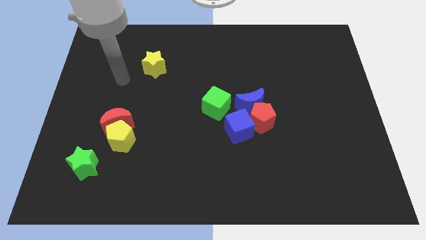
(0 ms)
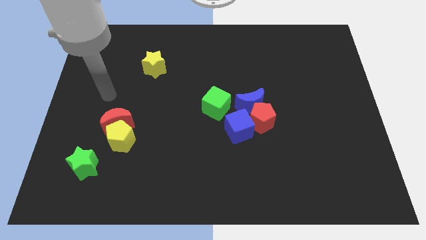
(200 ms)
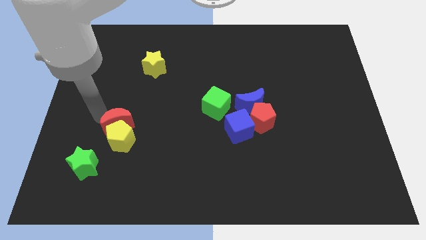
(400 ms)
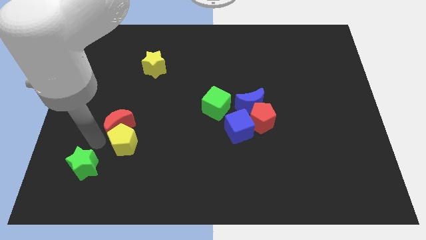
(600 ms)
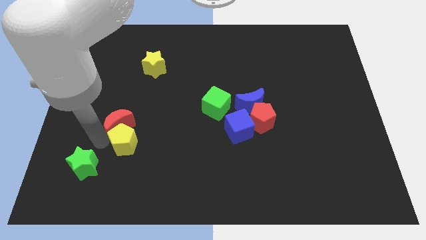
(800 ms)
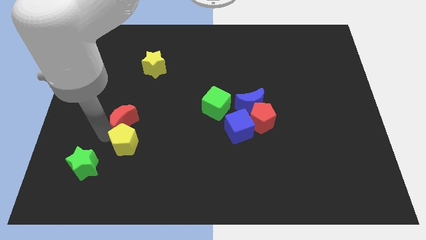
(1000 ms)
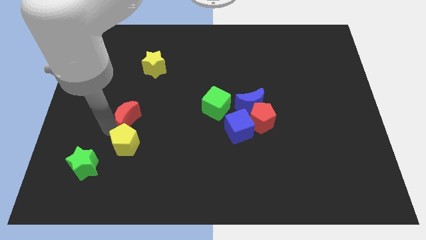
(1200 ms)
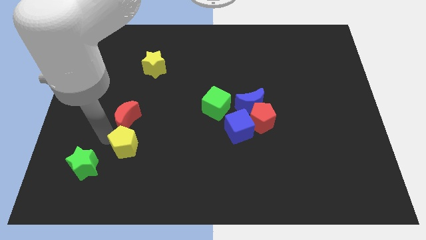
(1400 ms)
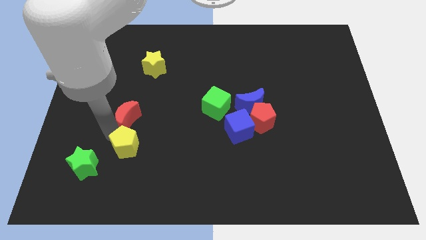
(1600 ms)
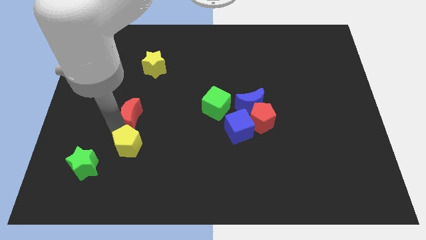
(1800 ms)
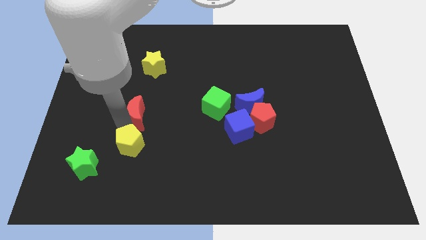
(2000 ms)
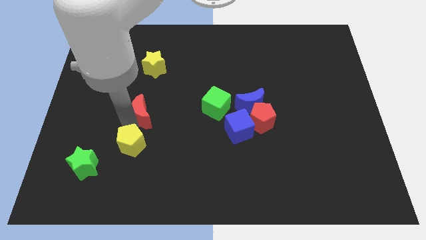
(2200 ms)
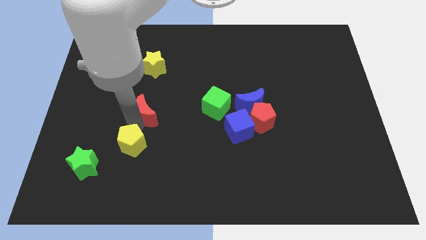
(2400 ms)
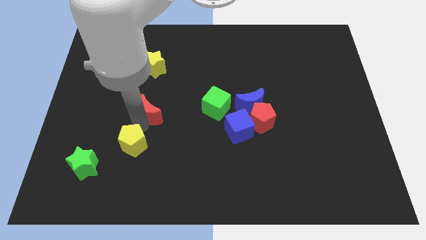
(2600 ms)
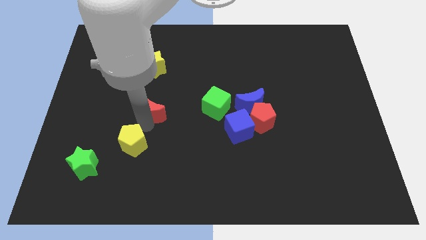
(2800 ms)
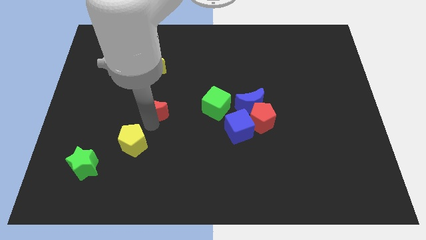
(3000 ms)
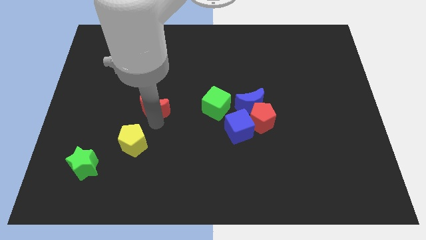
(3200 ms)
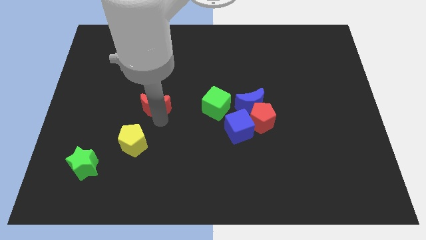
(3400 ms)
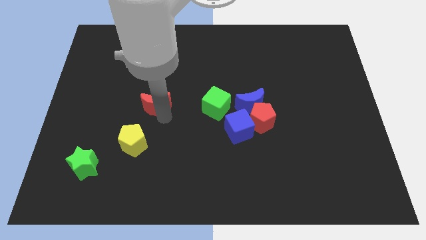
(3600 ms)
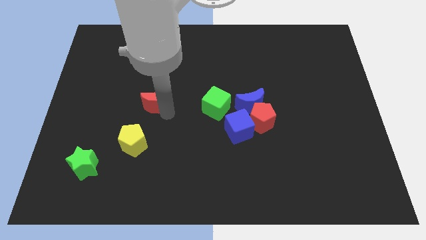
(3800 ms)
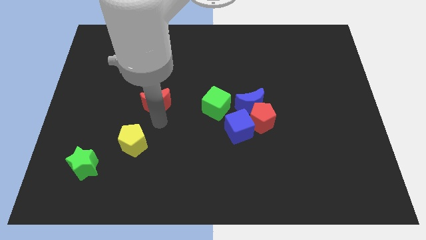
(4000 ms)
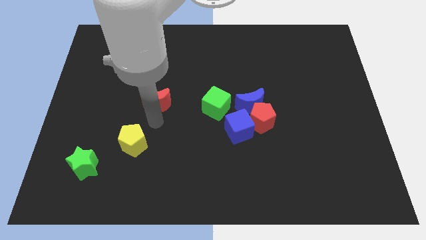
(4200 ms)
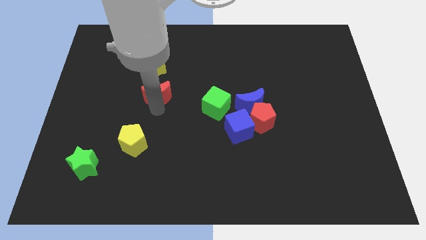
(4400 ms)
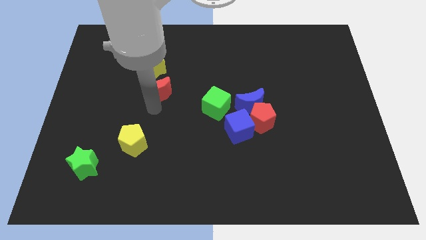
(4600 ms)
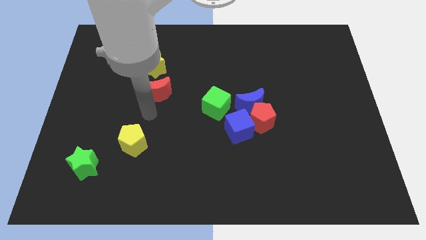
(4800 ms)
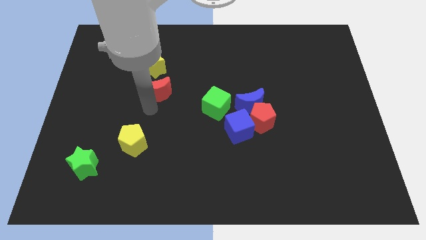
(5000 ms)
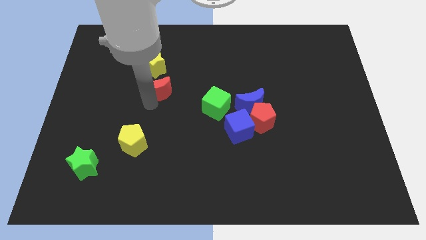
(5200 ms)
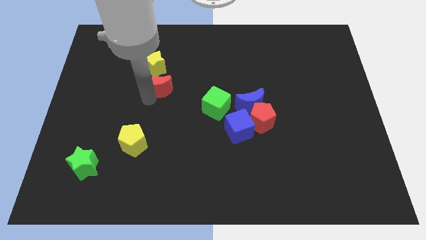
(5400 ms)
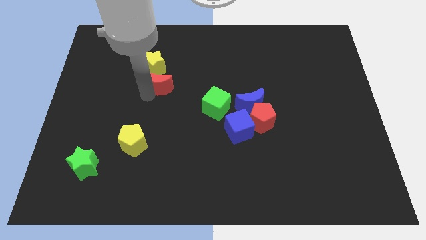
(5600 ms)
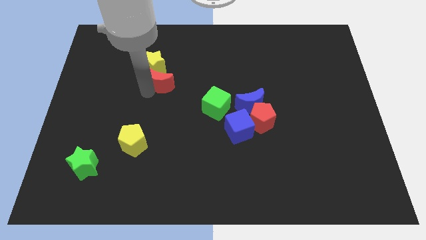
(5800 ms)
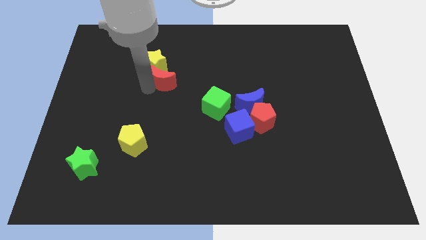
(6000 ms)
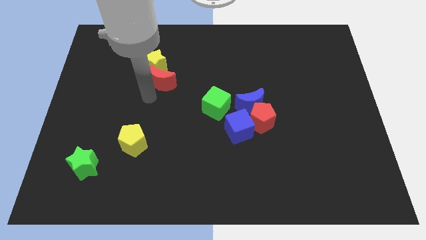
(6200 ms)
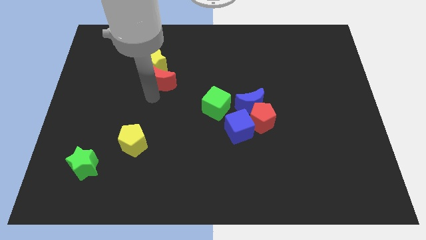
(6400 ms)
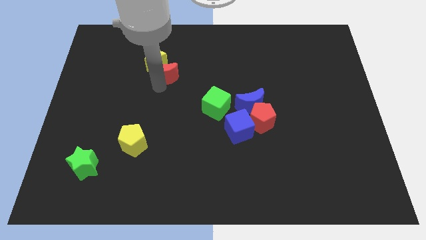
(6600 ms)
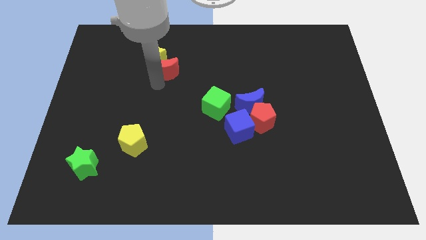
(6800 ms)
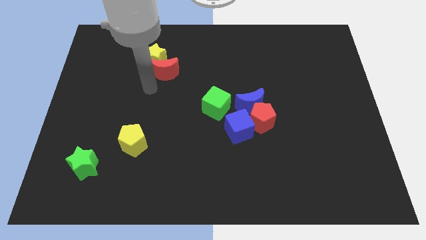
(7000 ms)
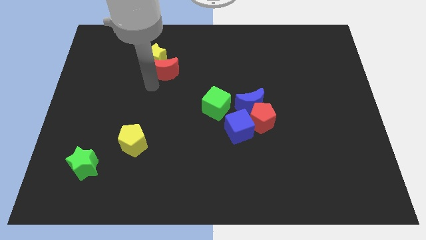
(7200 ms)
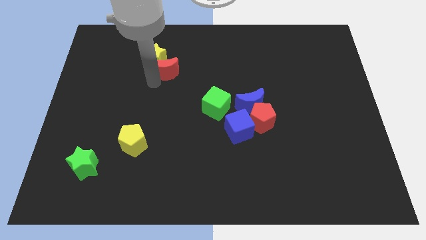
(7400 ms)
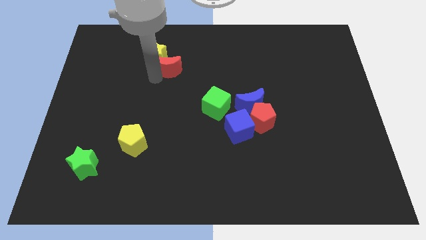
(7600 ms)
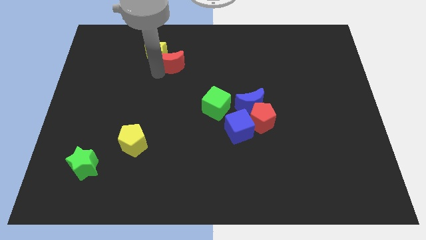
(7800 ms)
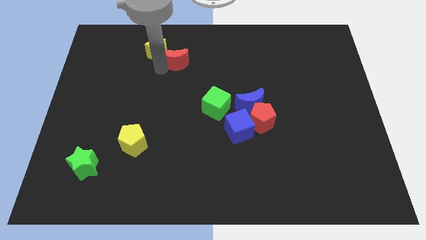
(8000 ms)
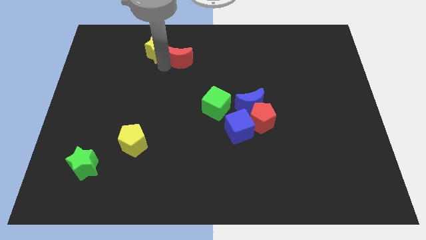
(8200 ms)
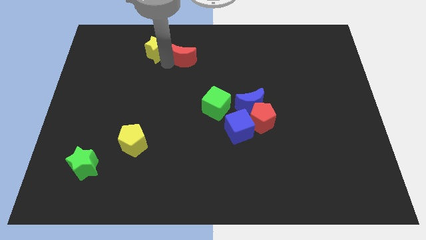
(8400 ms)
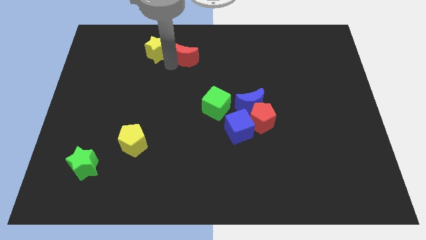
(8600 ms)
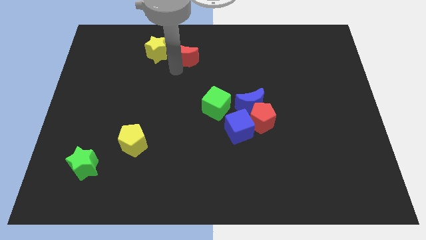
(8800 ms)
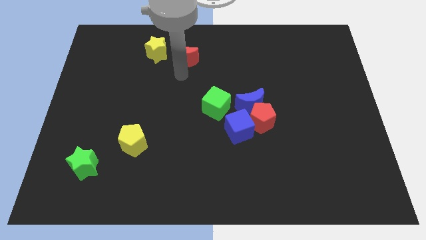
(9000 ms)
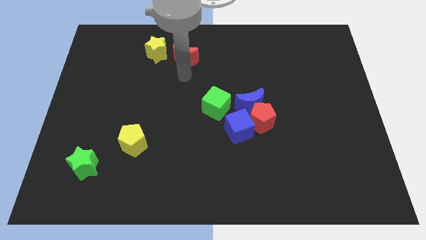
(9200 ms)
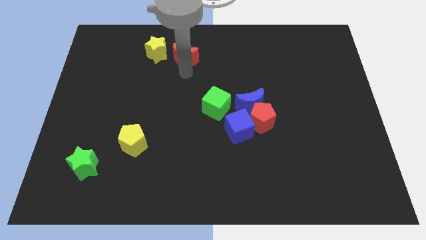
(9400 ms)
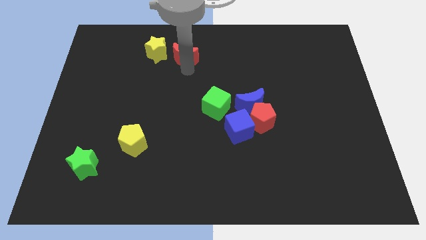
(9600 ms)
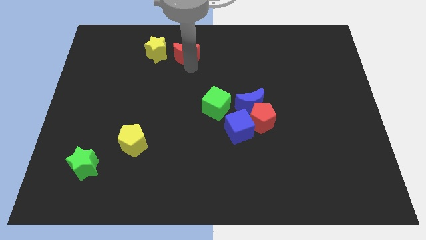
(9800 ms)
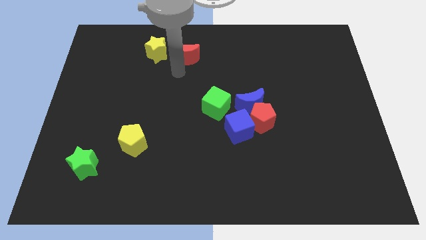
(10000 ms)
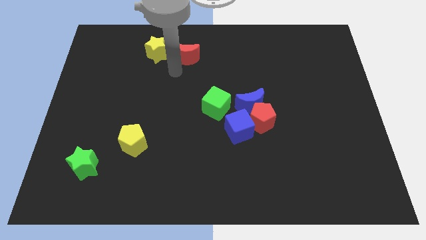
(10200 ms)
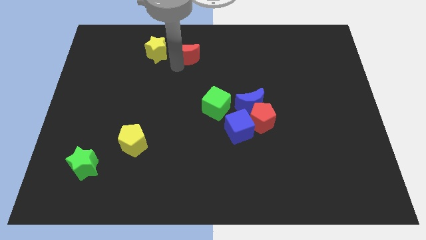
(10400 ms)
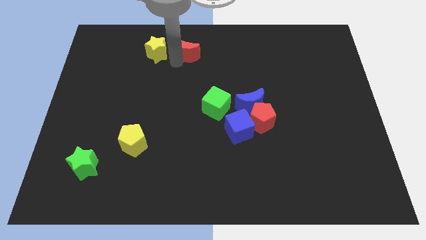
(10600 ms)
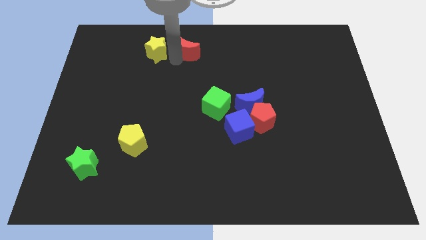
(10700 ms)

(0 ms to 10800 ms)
push the red moon to the towards your base

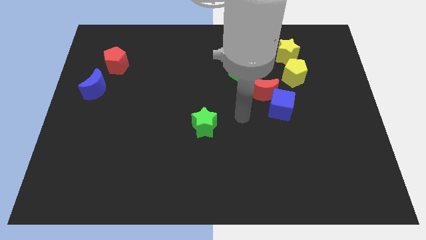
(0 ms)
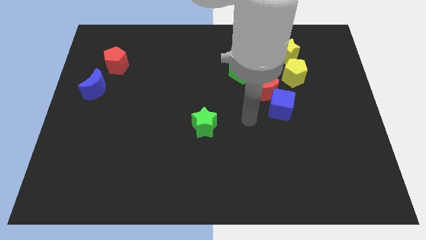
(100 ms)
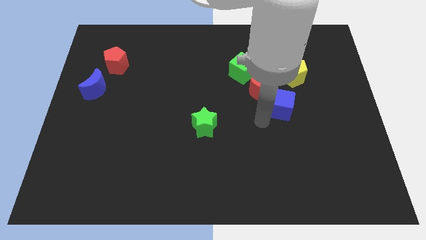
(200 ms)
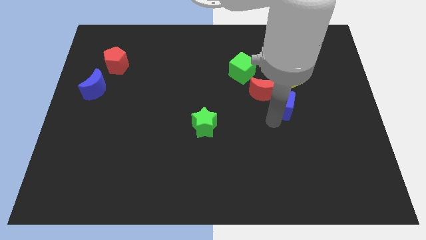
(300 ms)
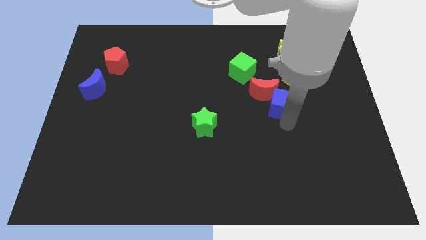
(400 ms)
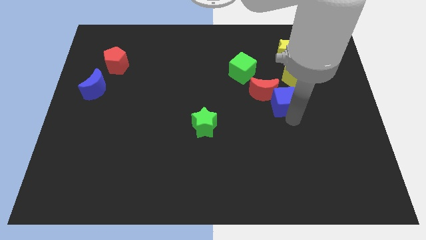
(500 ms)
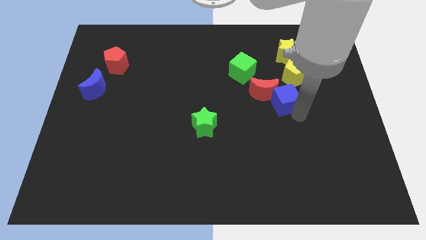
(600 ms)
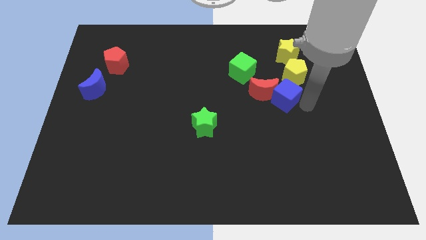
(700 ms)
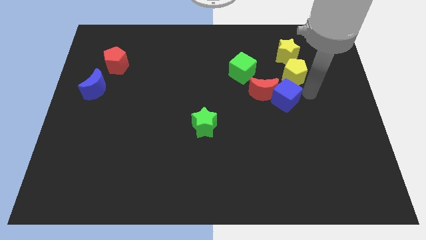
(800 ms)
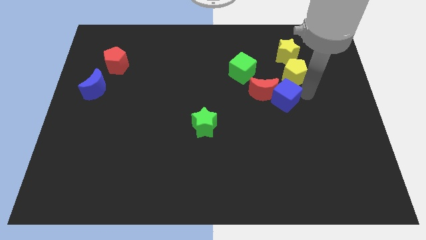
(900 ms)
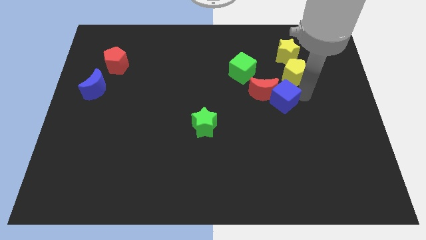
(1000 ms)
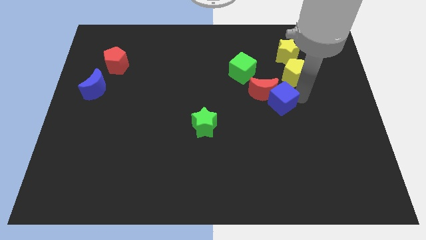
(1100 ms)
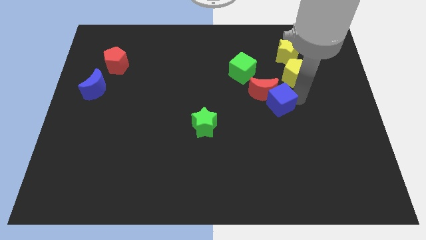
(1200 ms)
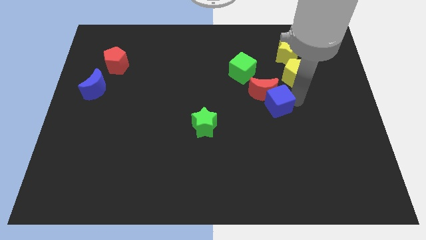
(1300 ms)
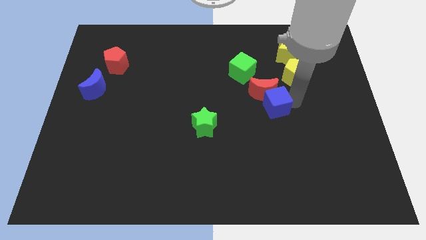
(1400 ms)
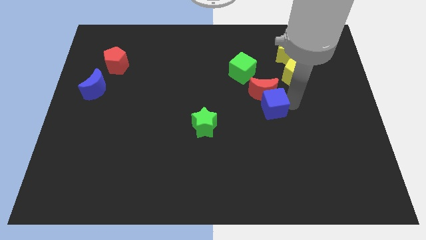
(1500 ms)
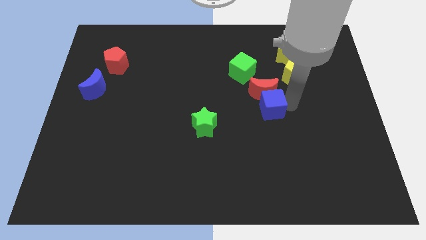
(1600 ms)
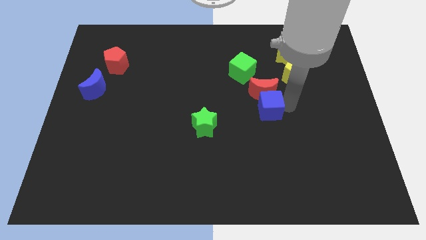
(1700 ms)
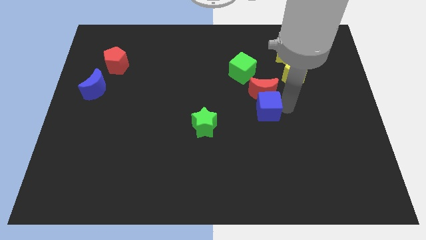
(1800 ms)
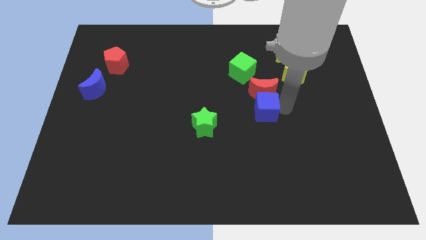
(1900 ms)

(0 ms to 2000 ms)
push the blue cube to the center

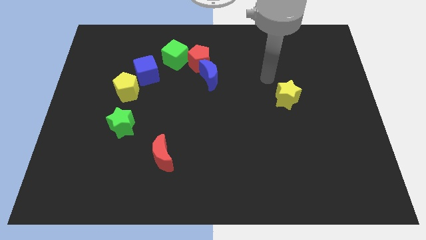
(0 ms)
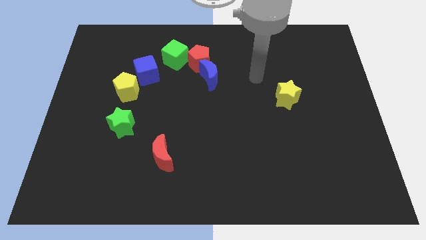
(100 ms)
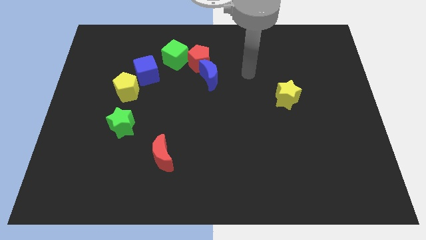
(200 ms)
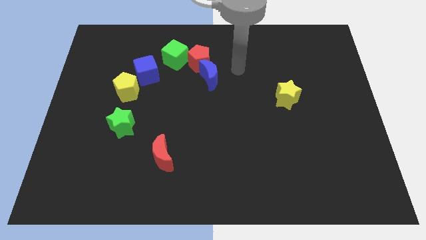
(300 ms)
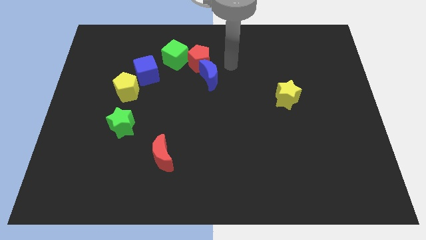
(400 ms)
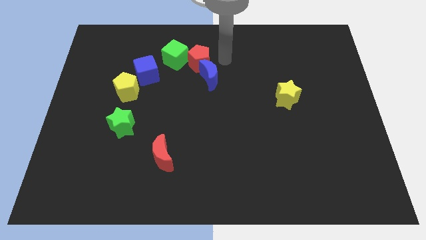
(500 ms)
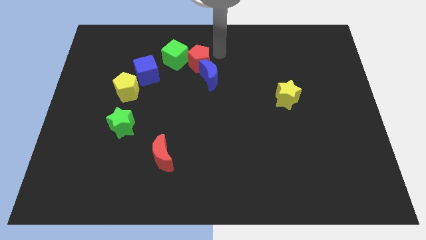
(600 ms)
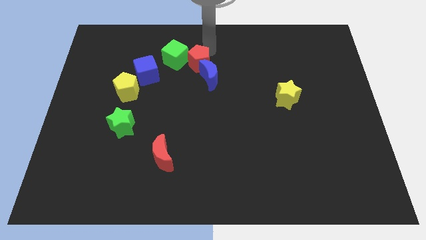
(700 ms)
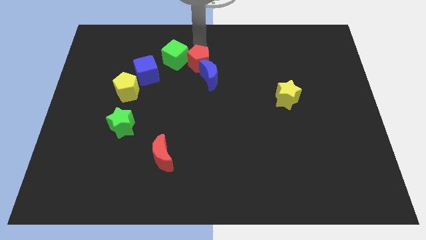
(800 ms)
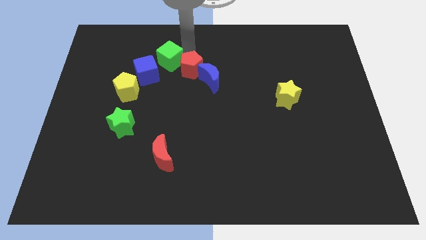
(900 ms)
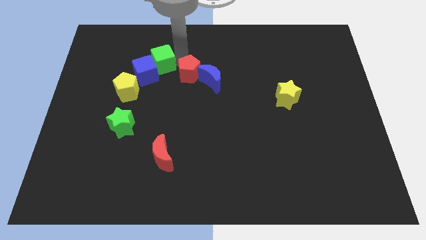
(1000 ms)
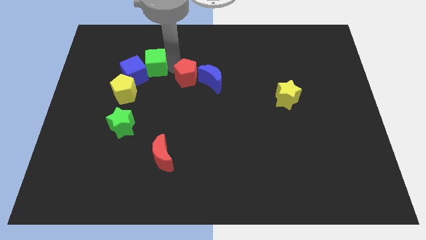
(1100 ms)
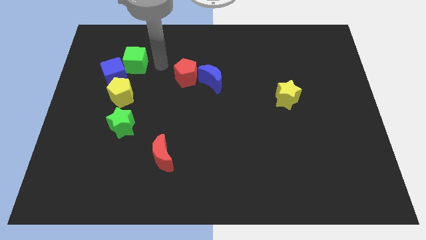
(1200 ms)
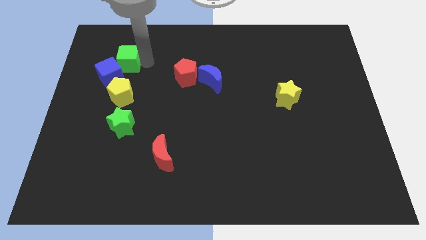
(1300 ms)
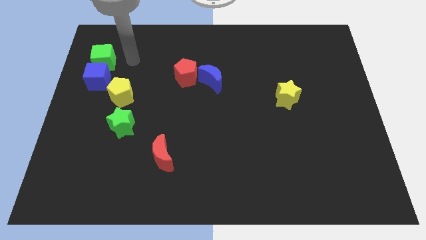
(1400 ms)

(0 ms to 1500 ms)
put the blue cube to the center left
